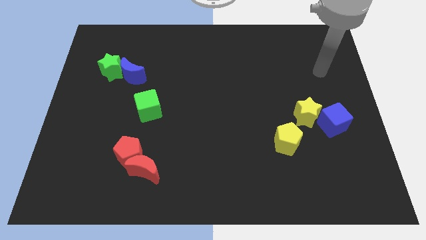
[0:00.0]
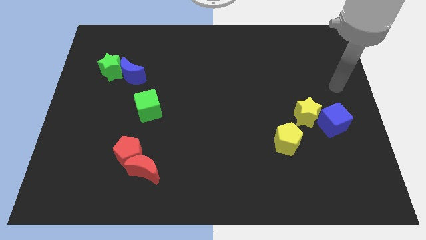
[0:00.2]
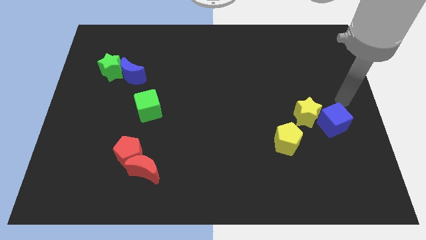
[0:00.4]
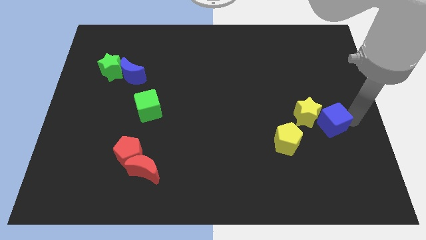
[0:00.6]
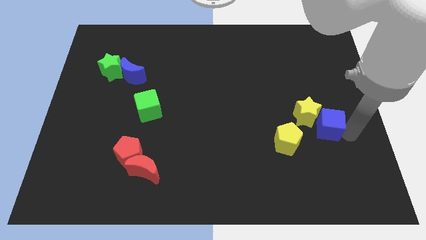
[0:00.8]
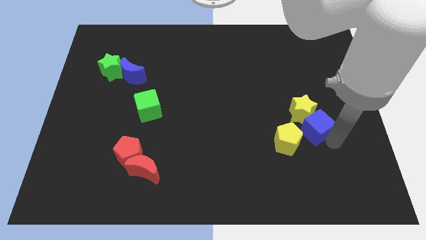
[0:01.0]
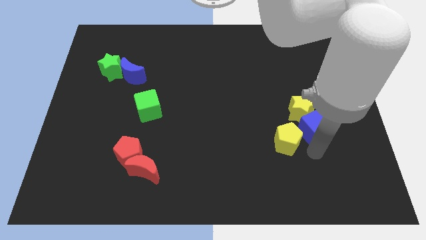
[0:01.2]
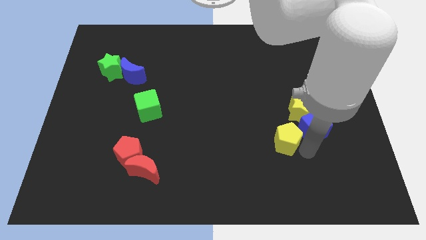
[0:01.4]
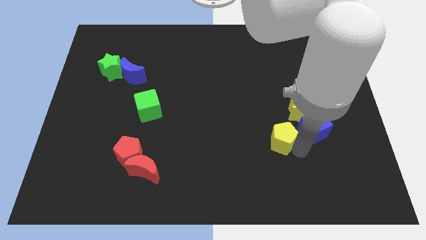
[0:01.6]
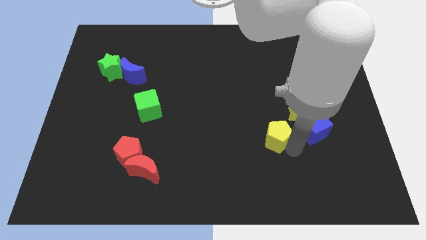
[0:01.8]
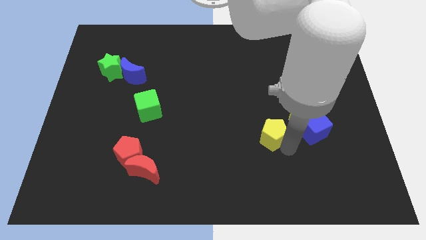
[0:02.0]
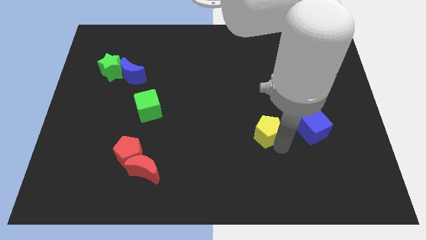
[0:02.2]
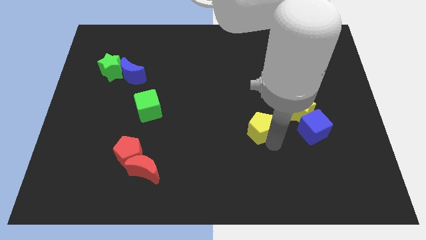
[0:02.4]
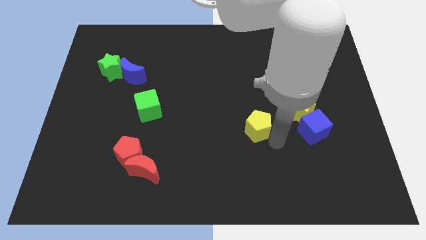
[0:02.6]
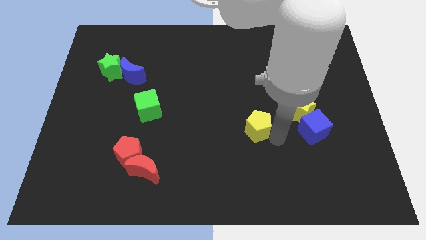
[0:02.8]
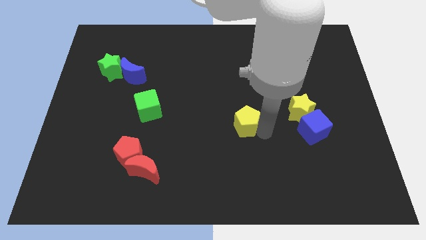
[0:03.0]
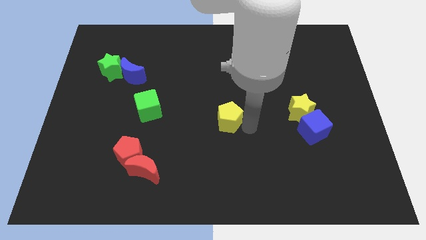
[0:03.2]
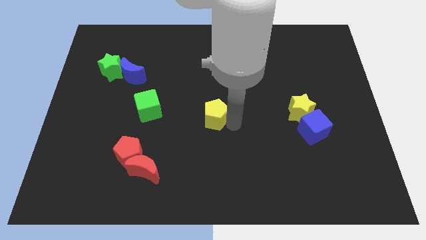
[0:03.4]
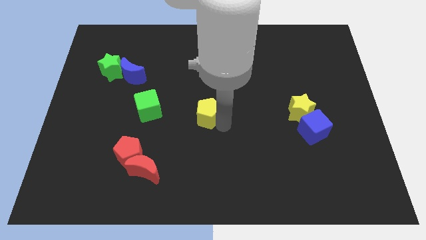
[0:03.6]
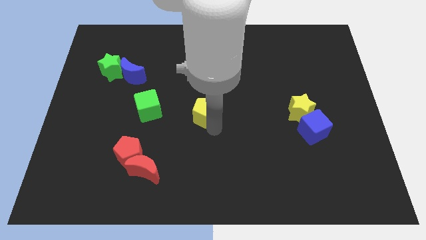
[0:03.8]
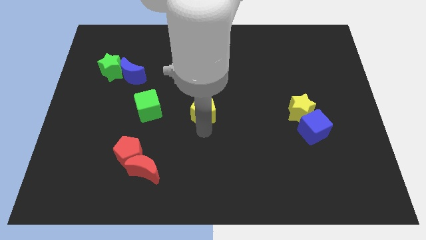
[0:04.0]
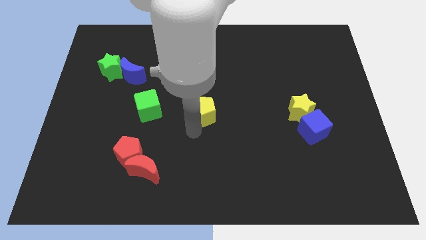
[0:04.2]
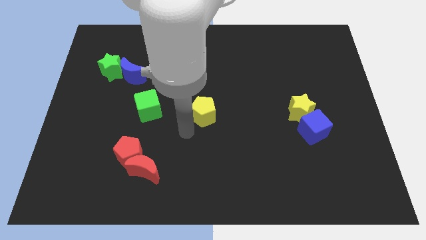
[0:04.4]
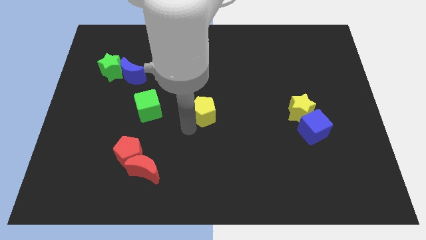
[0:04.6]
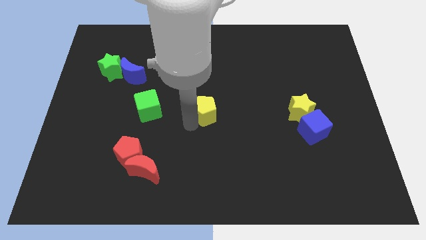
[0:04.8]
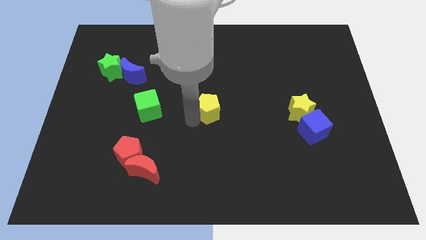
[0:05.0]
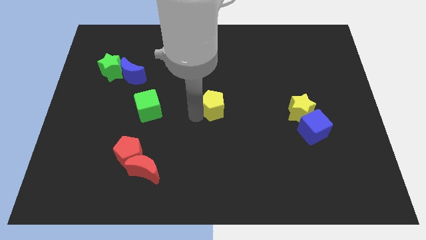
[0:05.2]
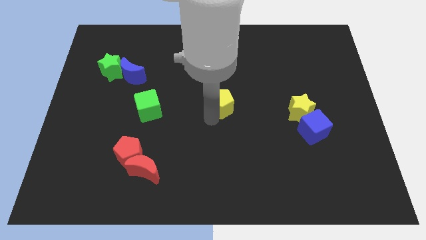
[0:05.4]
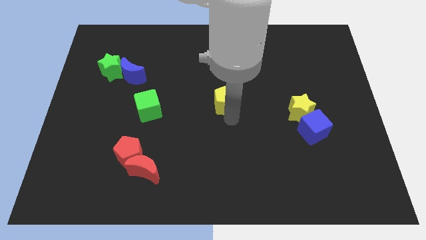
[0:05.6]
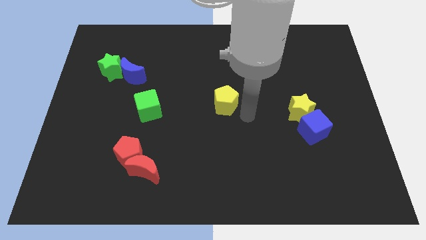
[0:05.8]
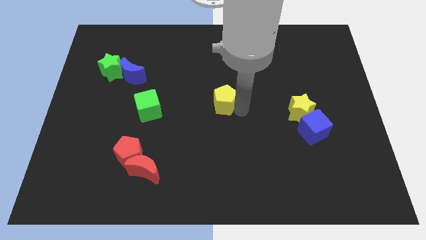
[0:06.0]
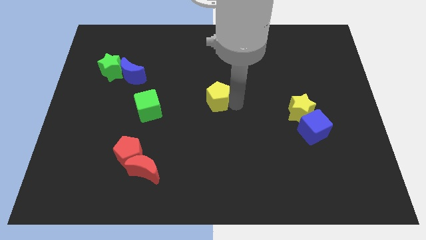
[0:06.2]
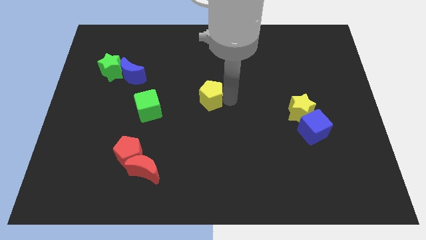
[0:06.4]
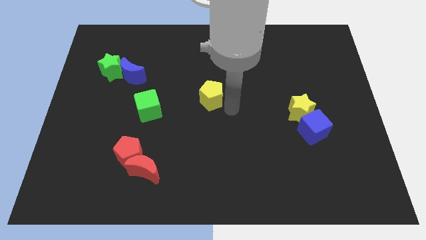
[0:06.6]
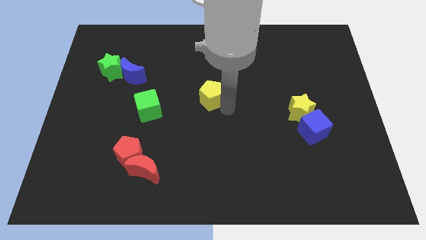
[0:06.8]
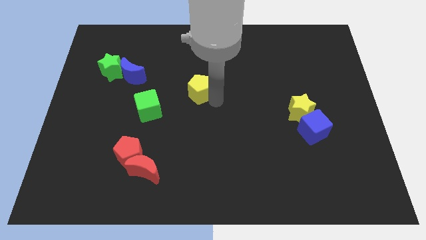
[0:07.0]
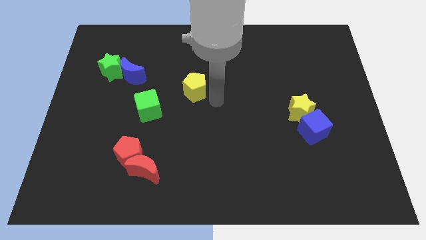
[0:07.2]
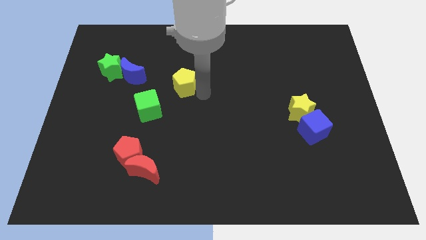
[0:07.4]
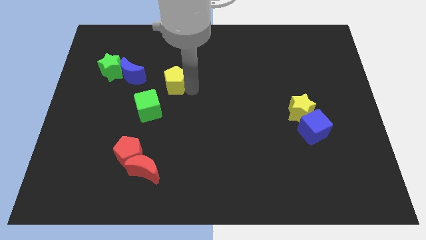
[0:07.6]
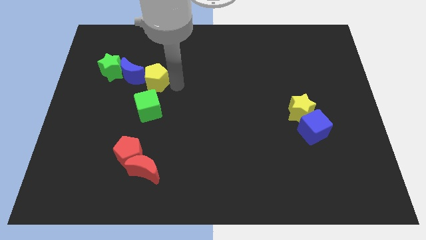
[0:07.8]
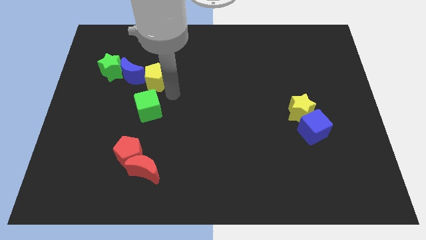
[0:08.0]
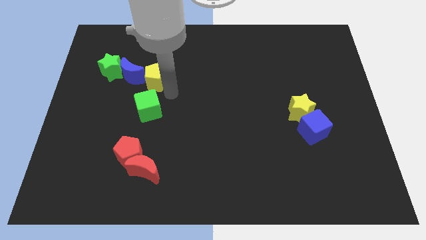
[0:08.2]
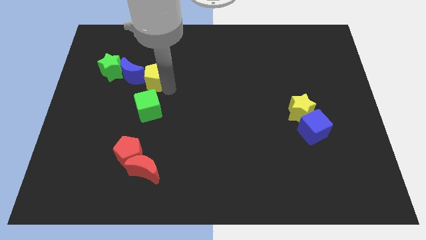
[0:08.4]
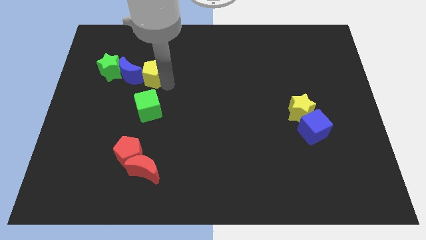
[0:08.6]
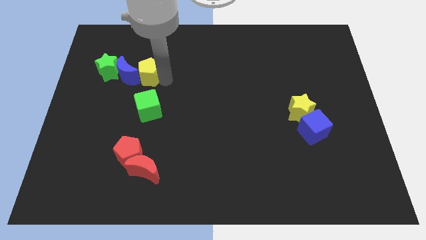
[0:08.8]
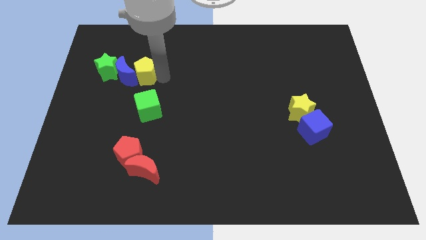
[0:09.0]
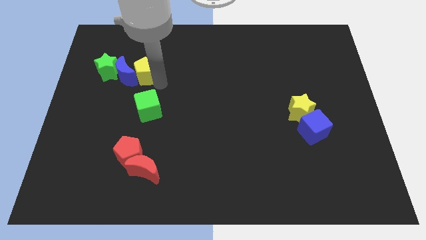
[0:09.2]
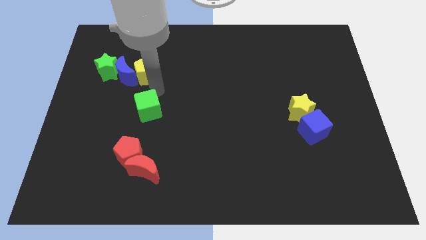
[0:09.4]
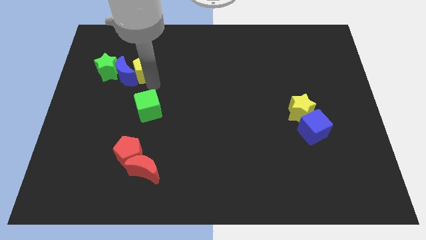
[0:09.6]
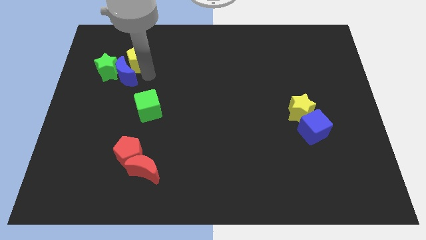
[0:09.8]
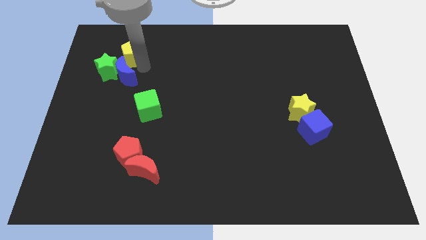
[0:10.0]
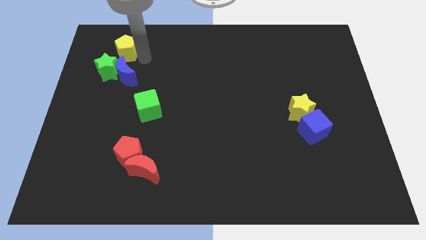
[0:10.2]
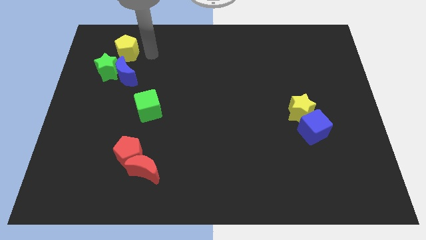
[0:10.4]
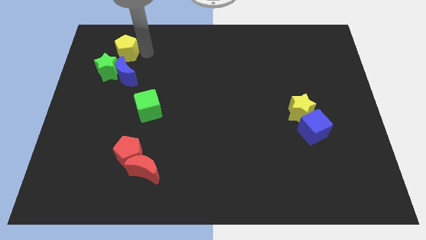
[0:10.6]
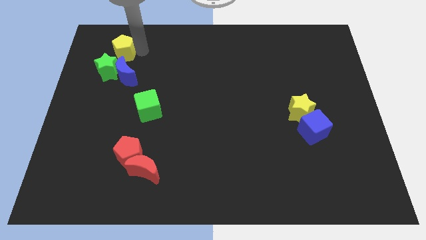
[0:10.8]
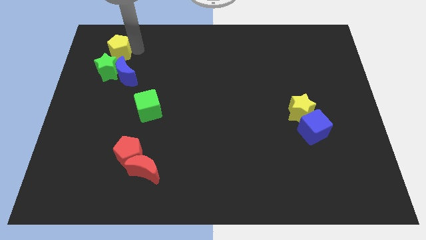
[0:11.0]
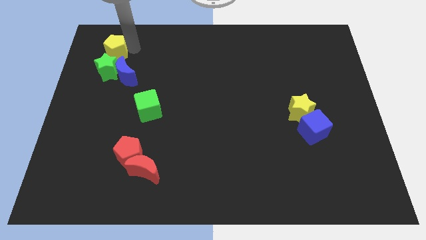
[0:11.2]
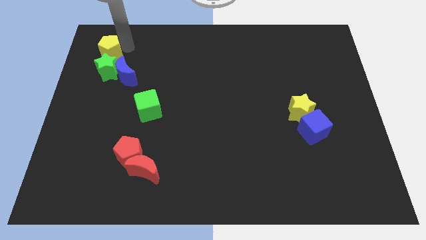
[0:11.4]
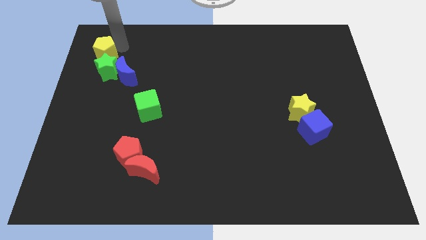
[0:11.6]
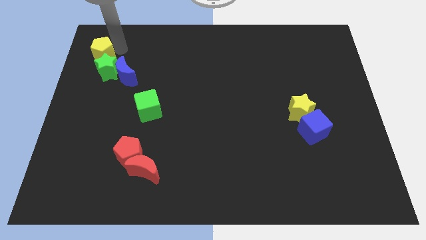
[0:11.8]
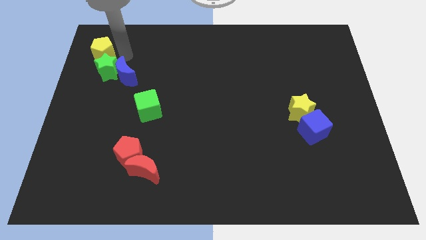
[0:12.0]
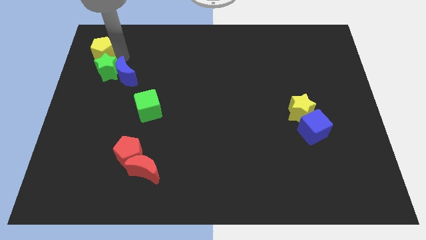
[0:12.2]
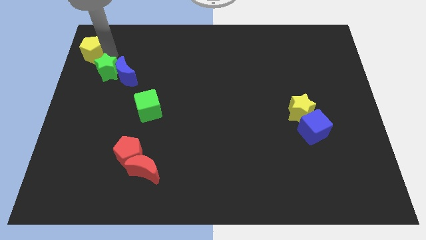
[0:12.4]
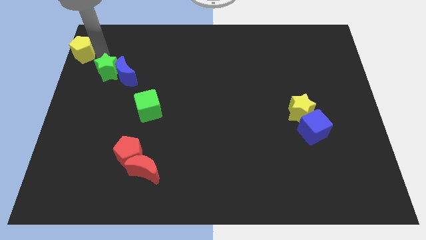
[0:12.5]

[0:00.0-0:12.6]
slide the yellow pentagon to the top left corner

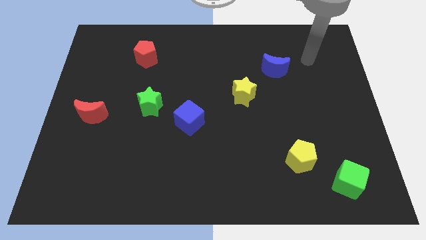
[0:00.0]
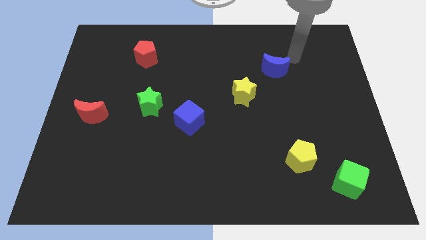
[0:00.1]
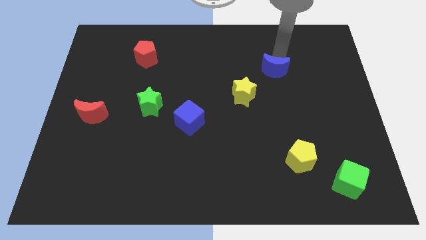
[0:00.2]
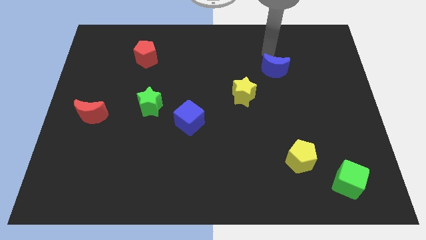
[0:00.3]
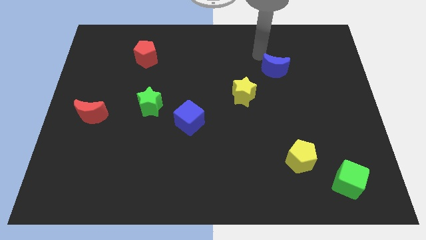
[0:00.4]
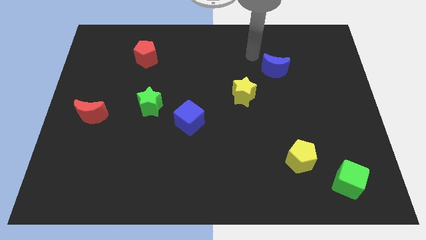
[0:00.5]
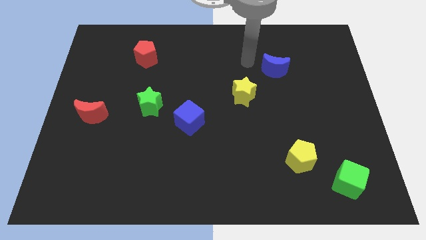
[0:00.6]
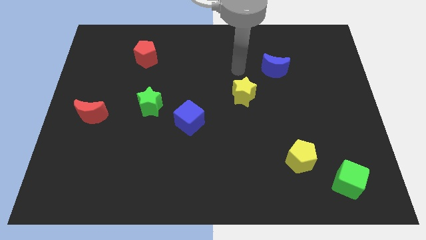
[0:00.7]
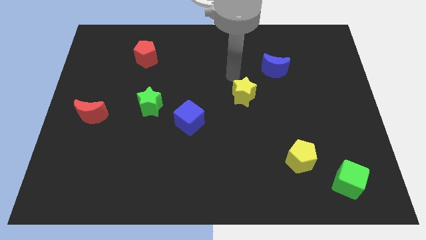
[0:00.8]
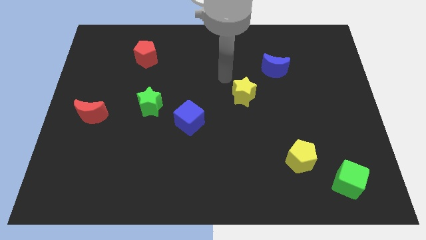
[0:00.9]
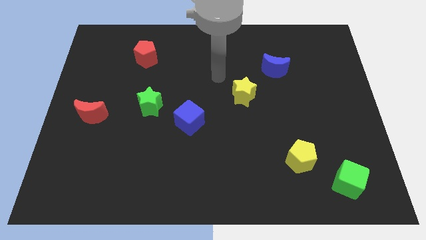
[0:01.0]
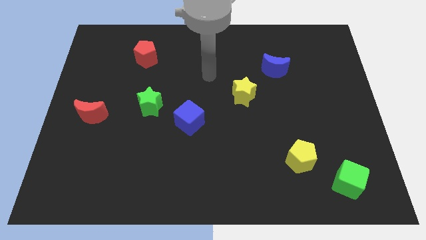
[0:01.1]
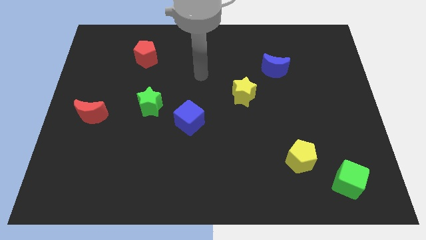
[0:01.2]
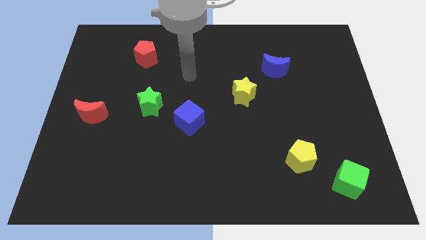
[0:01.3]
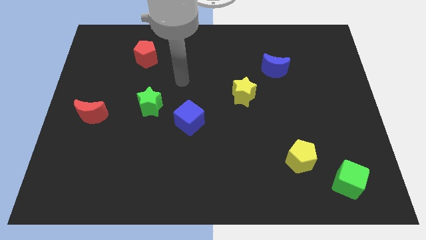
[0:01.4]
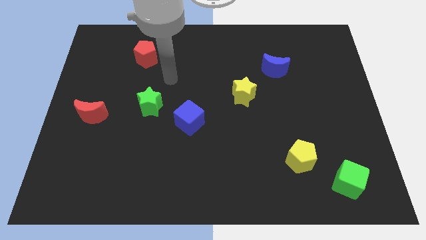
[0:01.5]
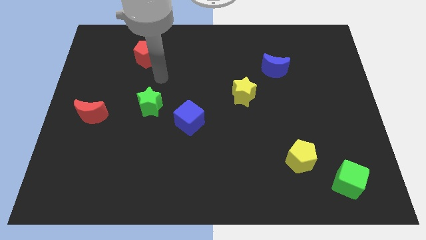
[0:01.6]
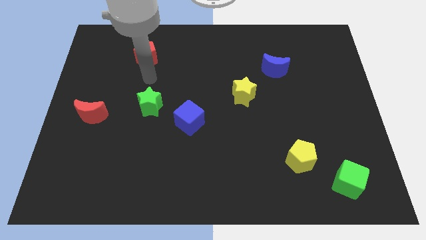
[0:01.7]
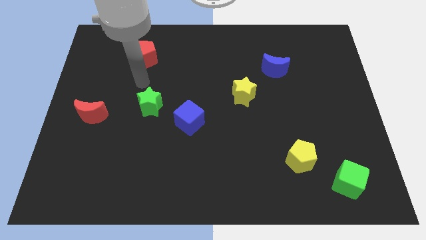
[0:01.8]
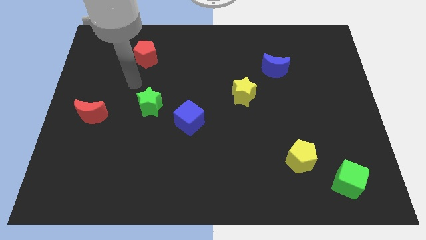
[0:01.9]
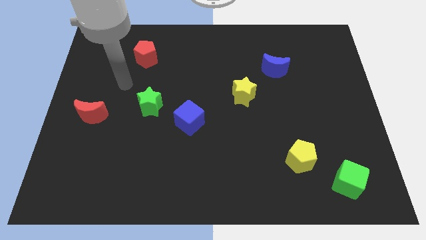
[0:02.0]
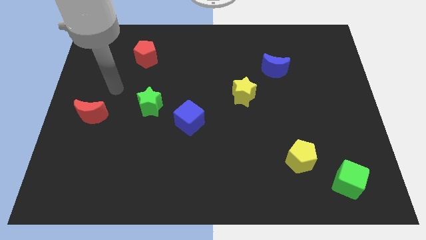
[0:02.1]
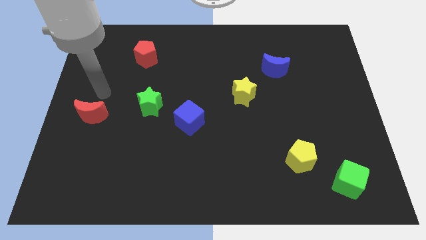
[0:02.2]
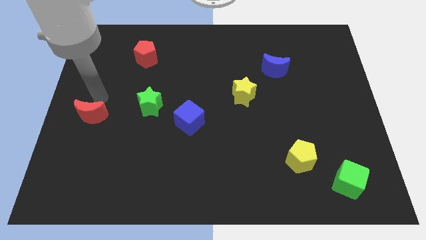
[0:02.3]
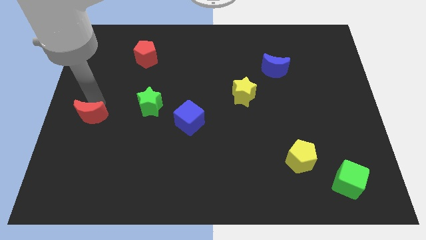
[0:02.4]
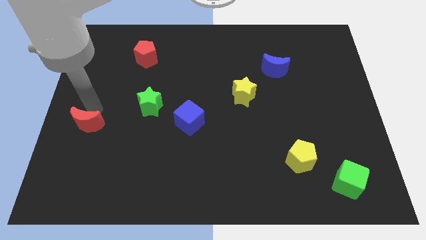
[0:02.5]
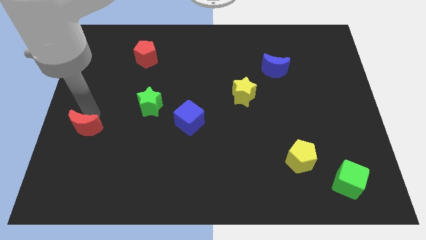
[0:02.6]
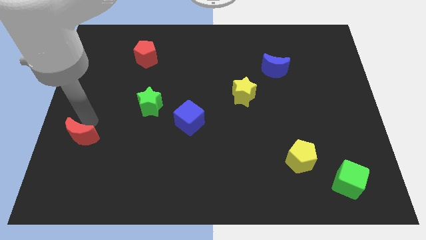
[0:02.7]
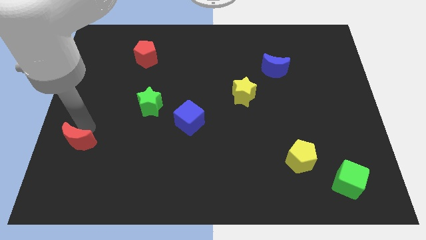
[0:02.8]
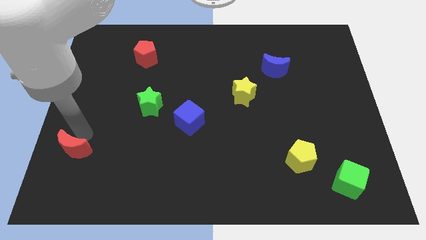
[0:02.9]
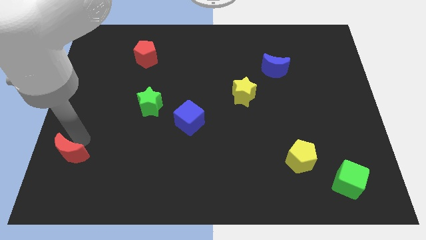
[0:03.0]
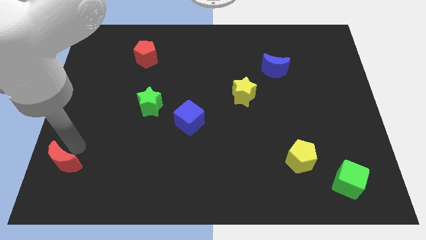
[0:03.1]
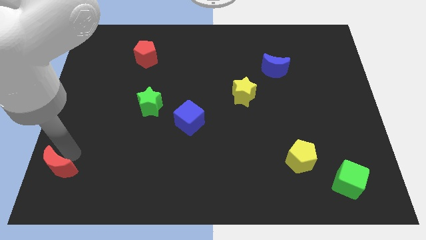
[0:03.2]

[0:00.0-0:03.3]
push the red moon to the bottom left corner
